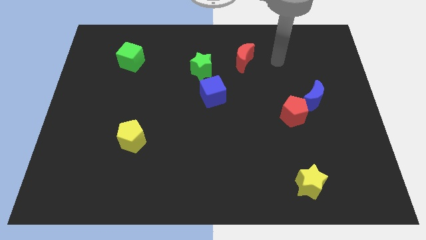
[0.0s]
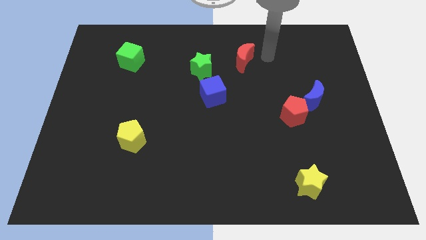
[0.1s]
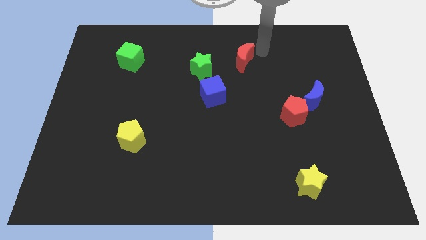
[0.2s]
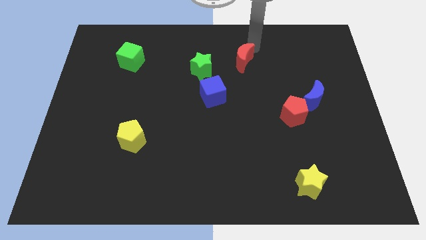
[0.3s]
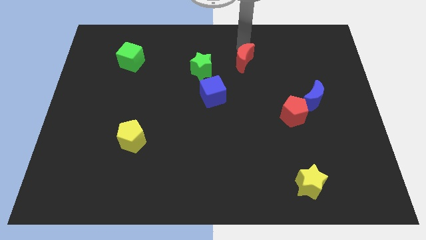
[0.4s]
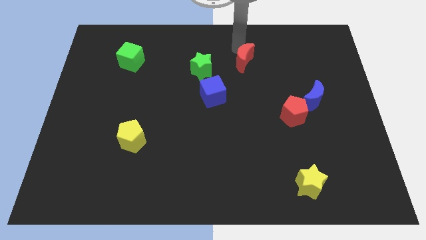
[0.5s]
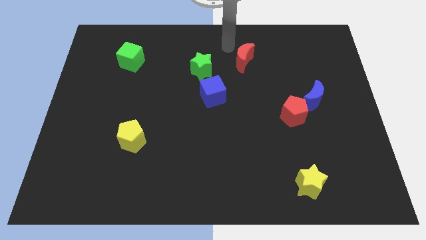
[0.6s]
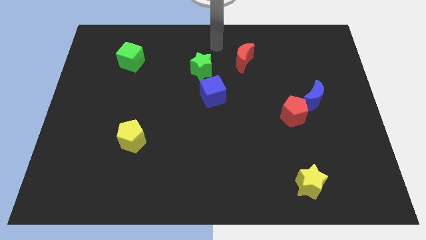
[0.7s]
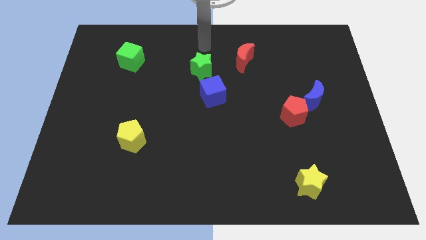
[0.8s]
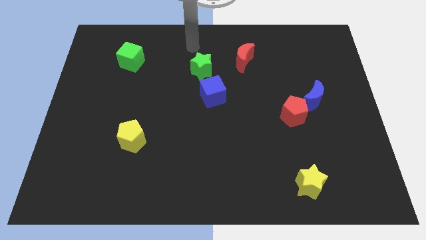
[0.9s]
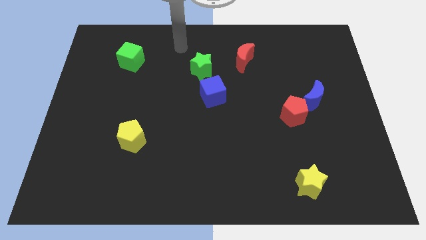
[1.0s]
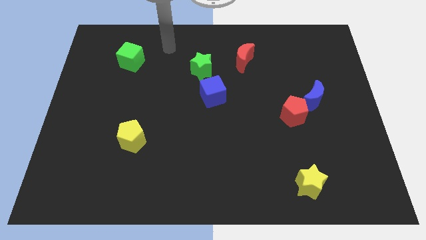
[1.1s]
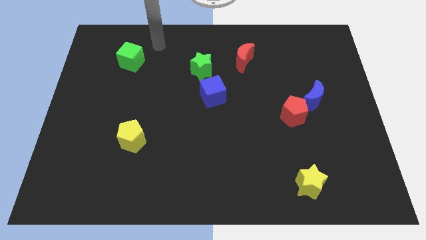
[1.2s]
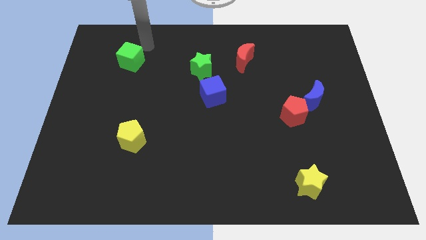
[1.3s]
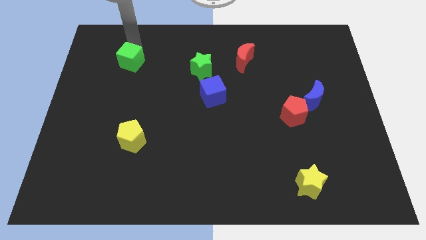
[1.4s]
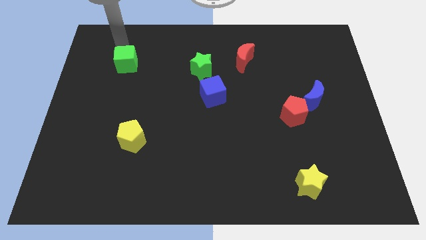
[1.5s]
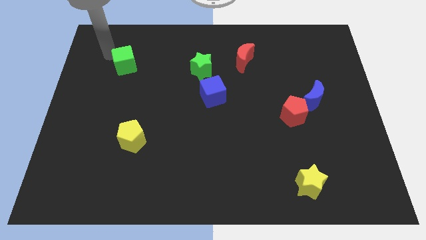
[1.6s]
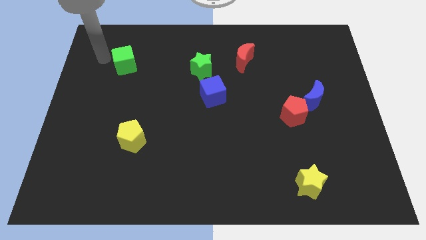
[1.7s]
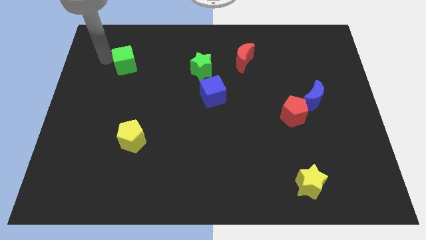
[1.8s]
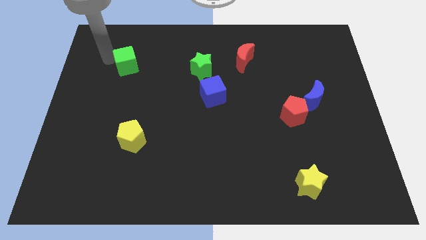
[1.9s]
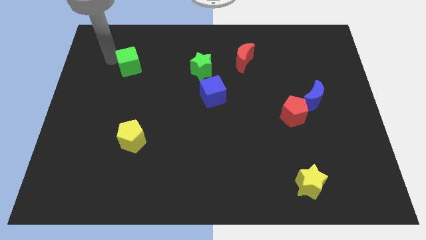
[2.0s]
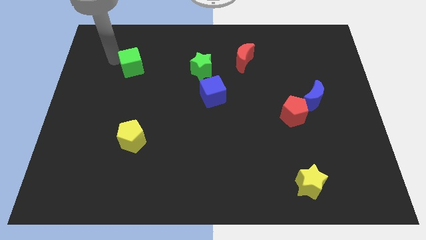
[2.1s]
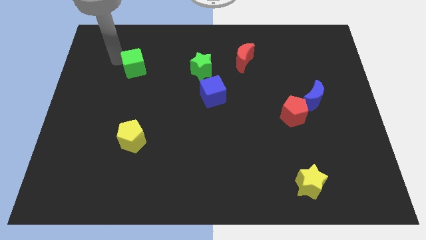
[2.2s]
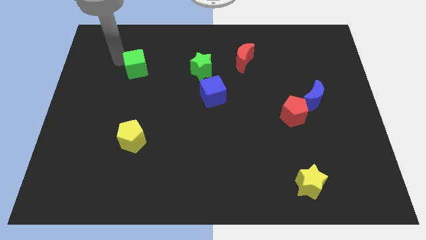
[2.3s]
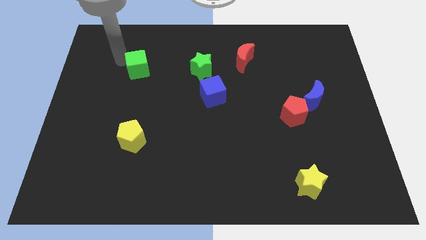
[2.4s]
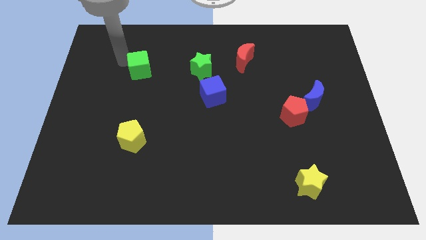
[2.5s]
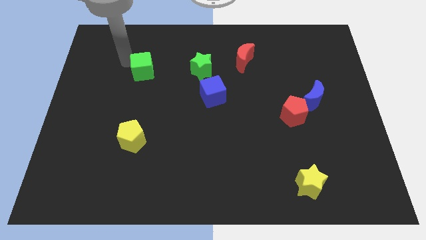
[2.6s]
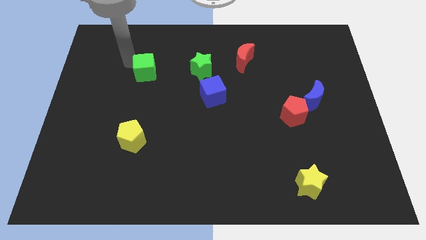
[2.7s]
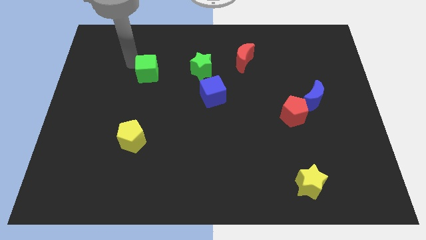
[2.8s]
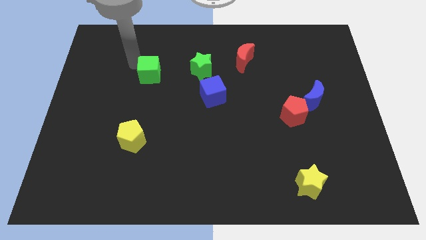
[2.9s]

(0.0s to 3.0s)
slightly slide the green cube diagonally down and right

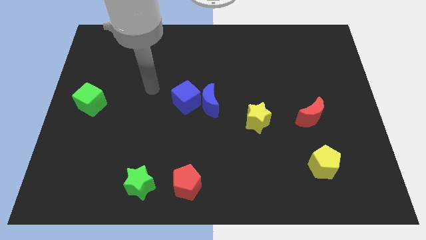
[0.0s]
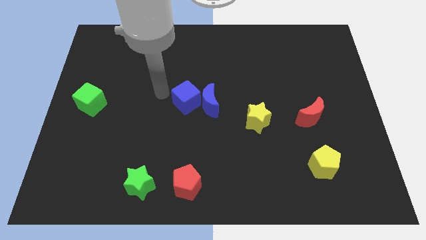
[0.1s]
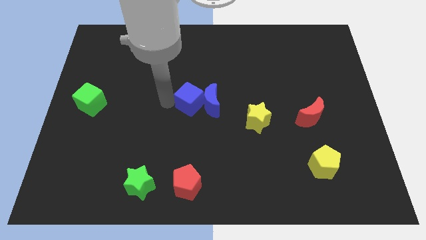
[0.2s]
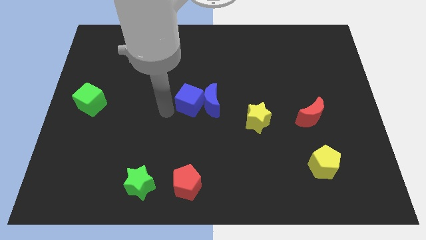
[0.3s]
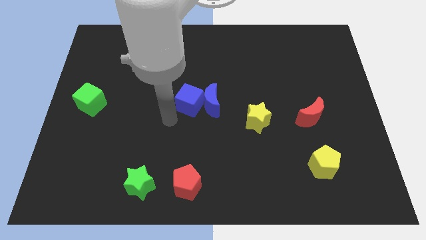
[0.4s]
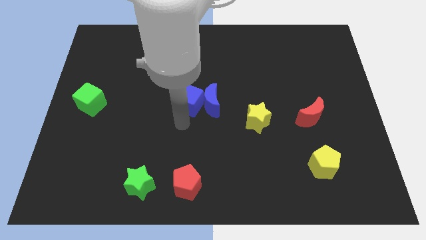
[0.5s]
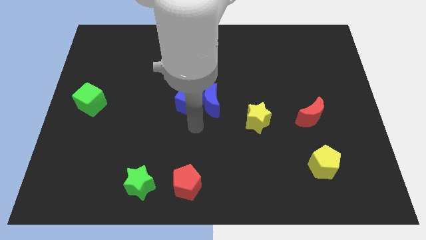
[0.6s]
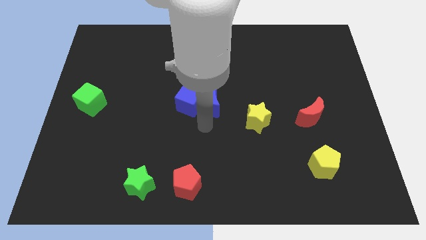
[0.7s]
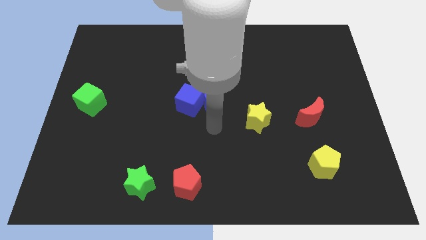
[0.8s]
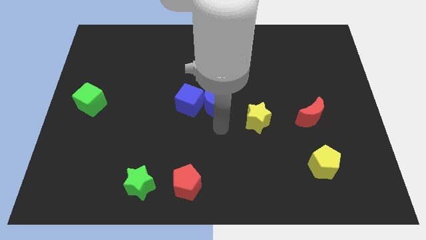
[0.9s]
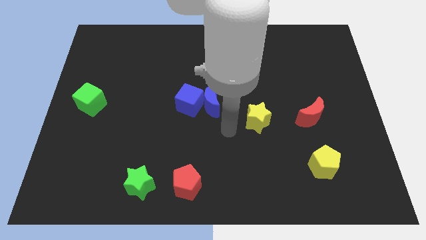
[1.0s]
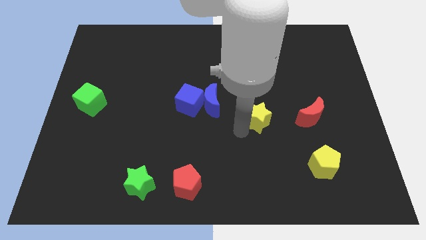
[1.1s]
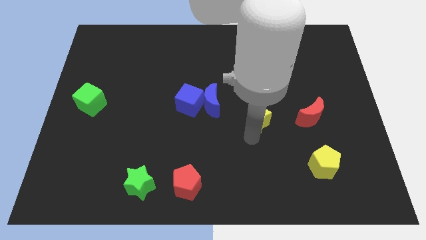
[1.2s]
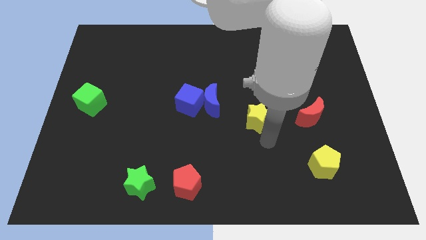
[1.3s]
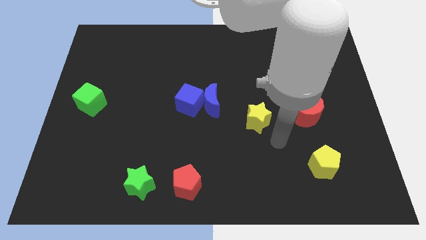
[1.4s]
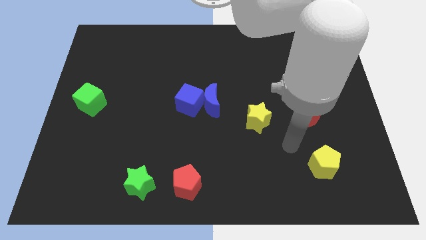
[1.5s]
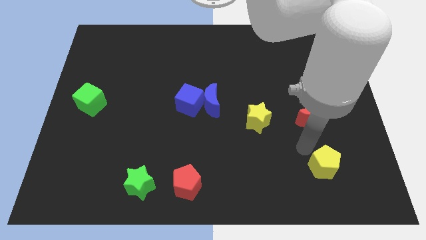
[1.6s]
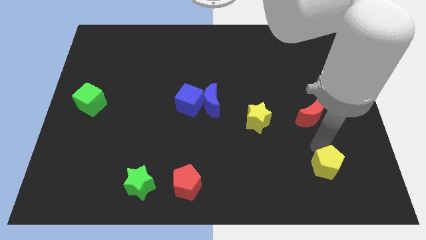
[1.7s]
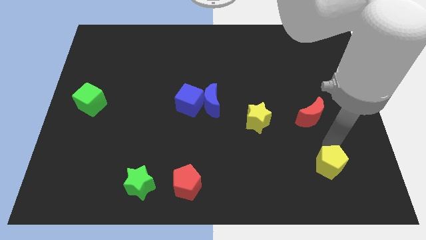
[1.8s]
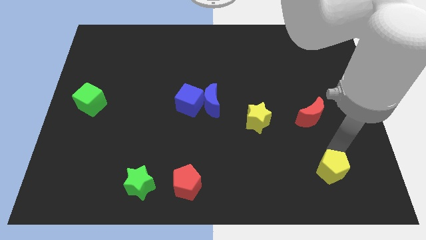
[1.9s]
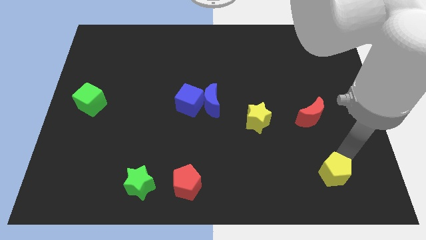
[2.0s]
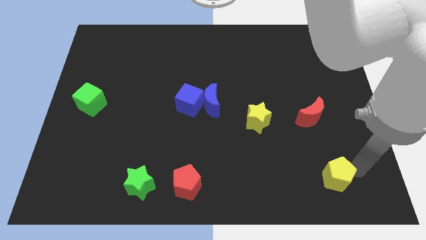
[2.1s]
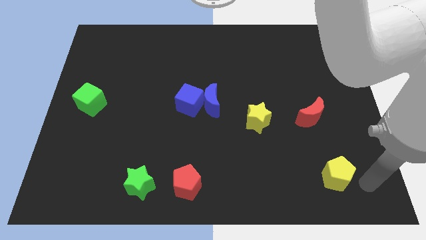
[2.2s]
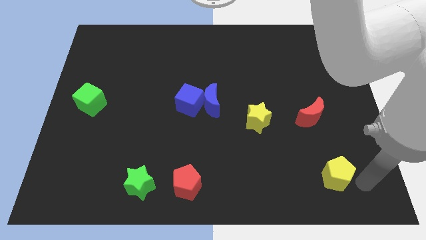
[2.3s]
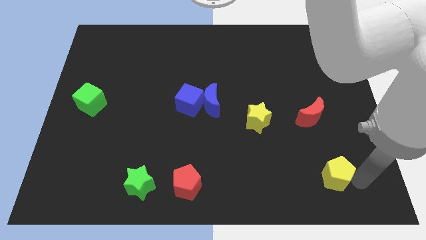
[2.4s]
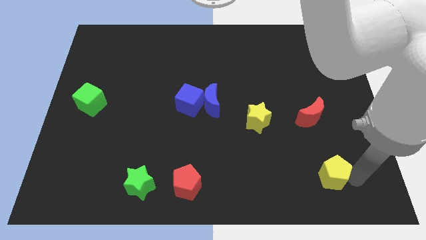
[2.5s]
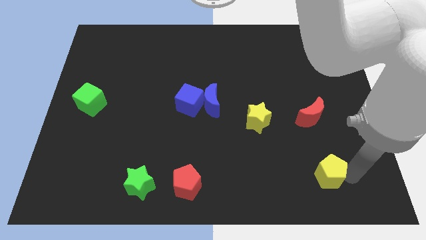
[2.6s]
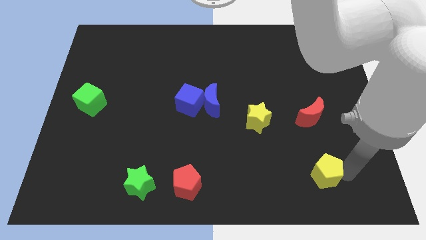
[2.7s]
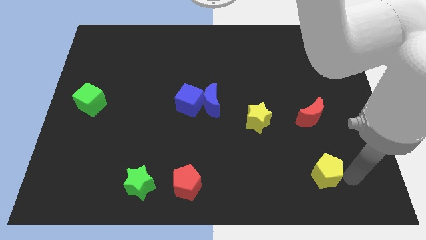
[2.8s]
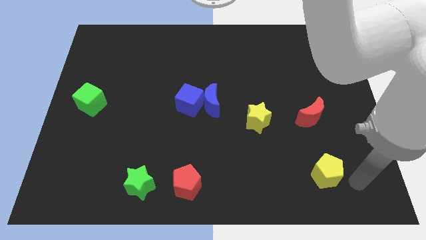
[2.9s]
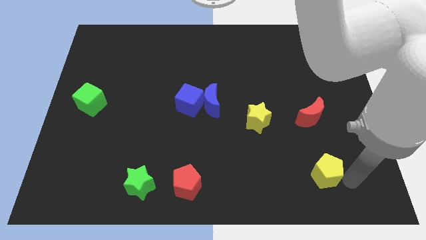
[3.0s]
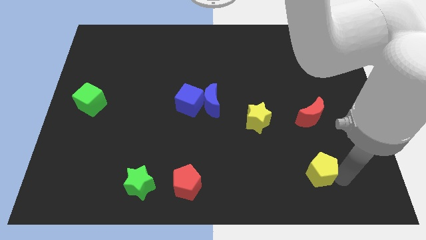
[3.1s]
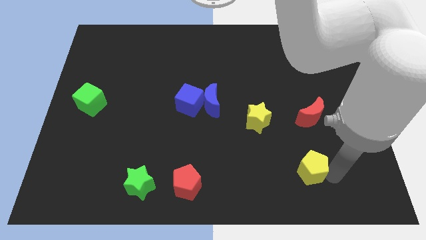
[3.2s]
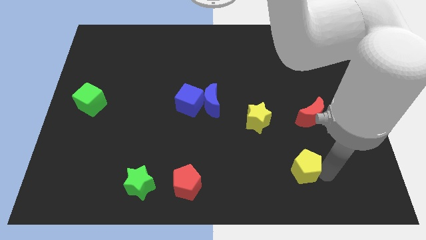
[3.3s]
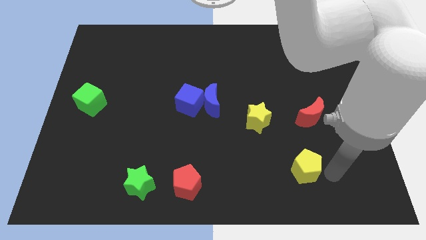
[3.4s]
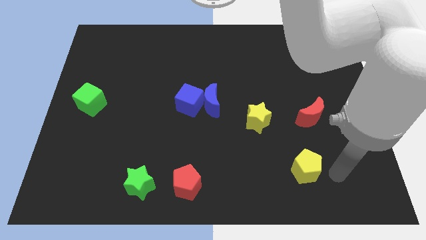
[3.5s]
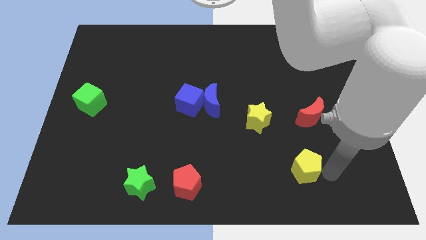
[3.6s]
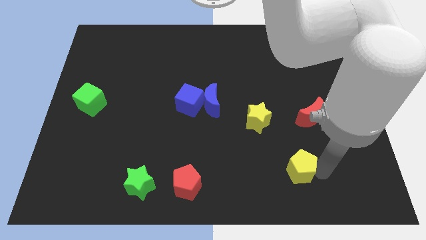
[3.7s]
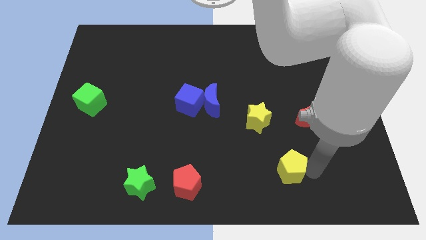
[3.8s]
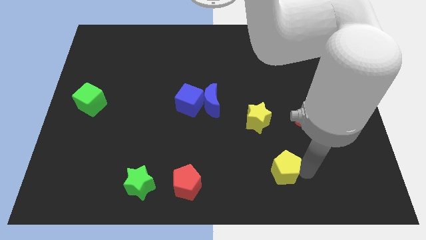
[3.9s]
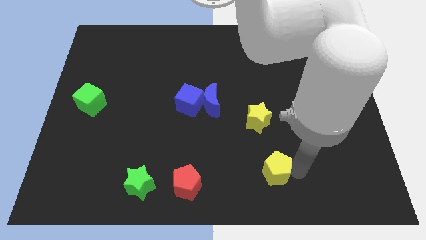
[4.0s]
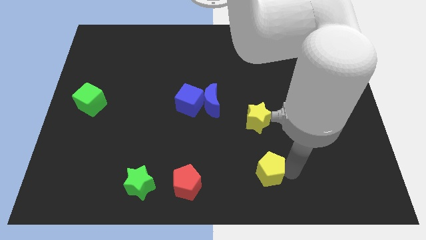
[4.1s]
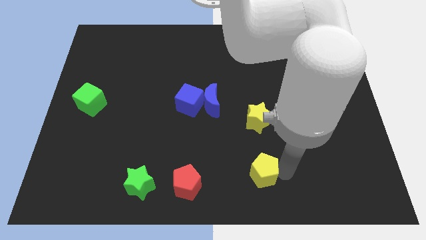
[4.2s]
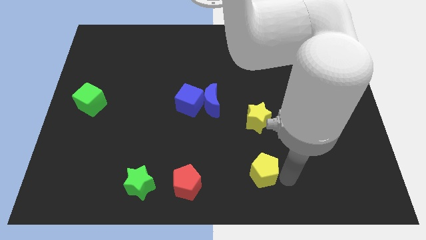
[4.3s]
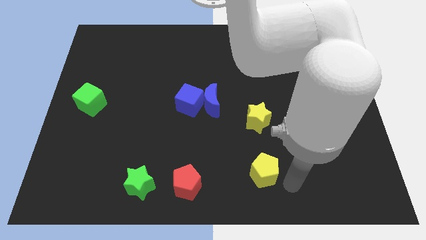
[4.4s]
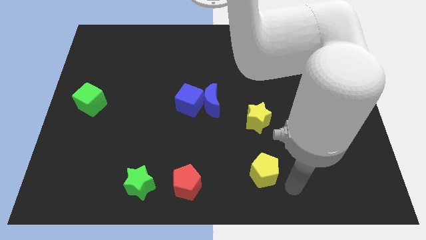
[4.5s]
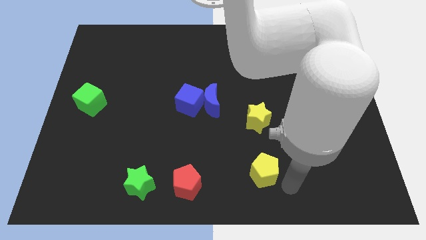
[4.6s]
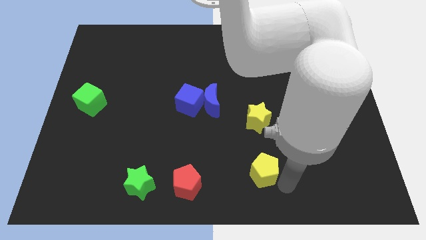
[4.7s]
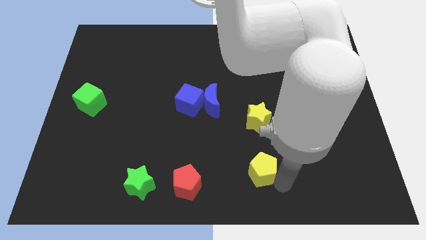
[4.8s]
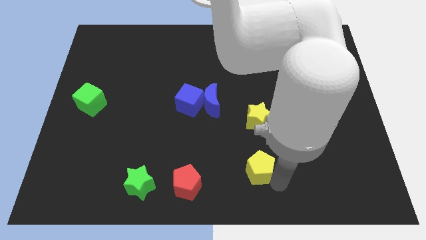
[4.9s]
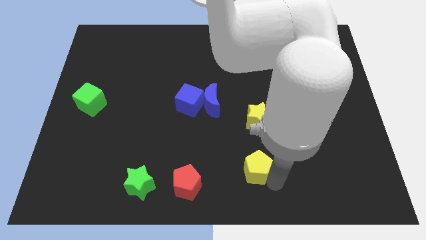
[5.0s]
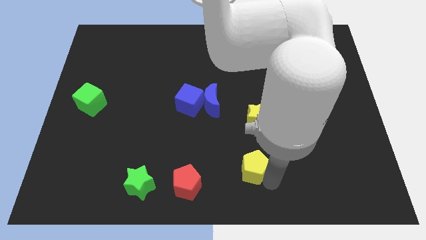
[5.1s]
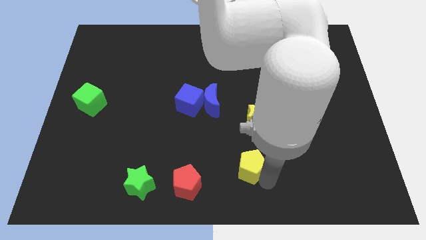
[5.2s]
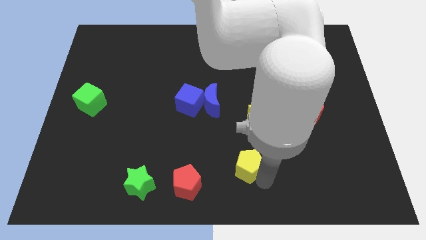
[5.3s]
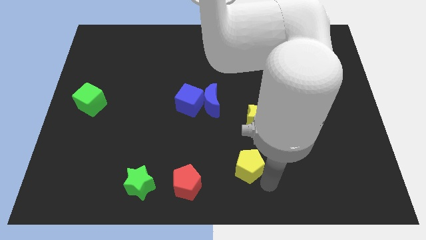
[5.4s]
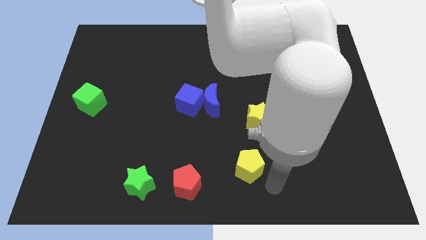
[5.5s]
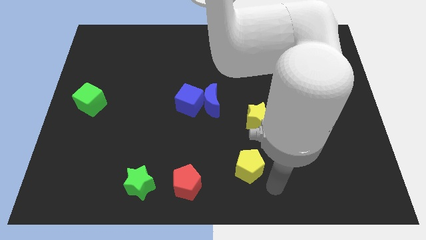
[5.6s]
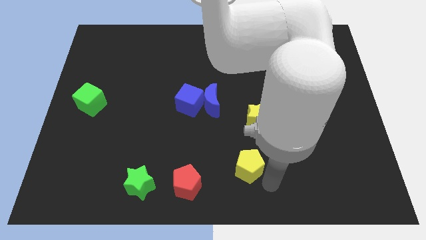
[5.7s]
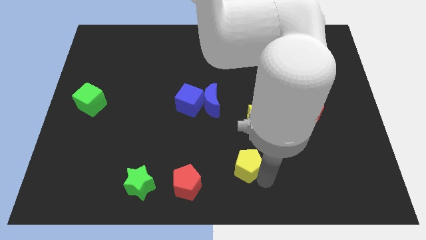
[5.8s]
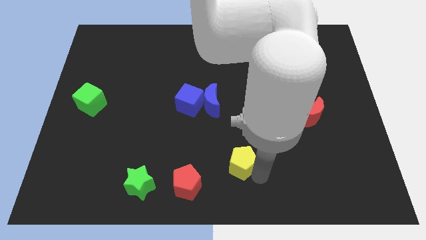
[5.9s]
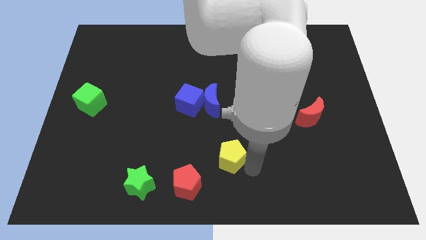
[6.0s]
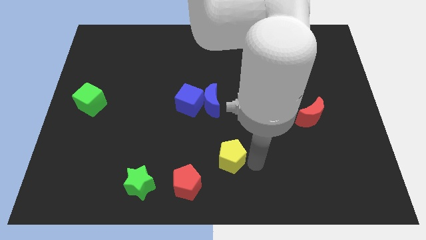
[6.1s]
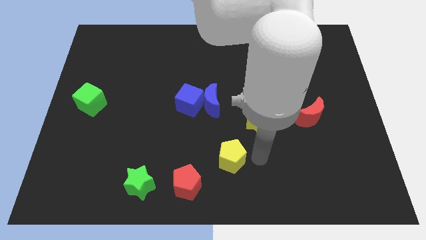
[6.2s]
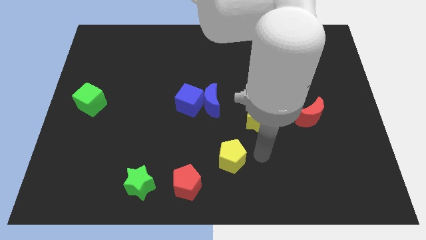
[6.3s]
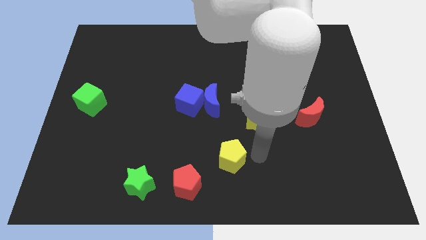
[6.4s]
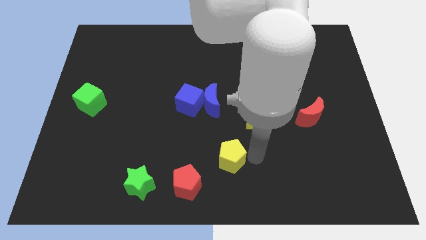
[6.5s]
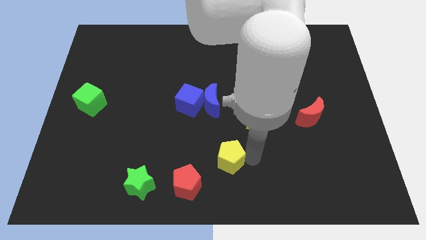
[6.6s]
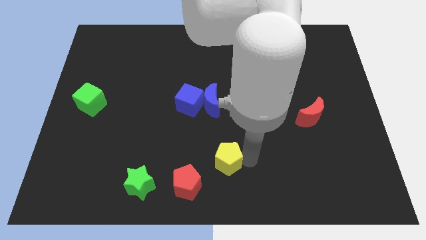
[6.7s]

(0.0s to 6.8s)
slide the yellow pentagon to the left
